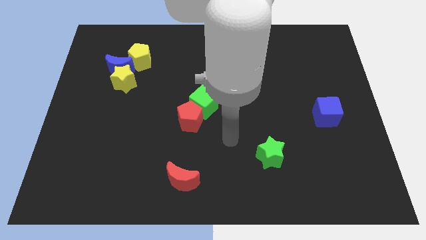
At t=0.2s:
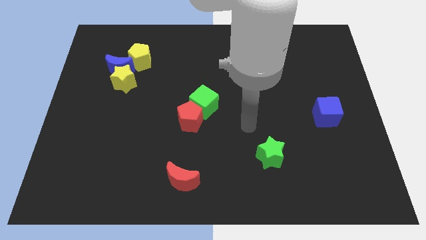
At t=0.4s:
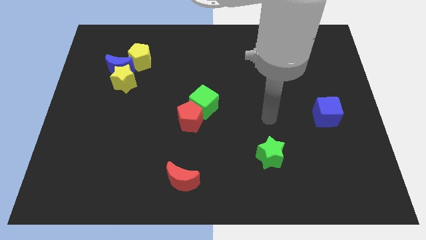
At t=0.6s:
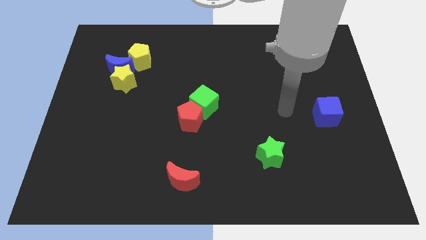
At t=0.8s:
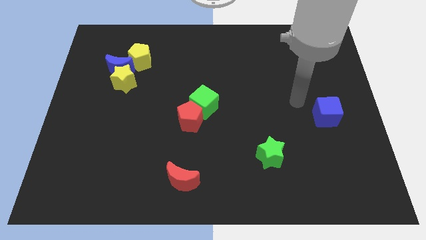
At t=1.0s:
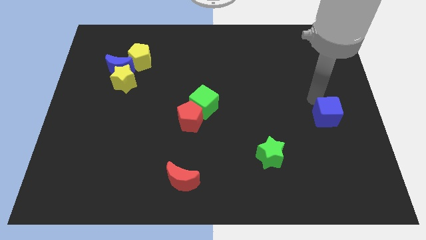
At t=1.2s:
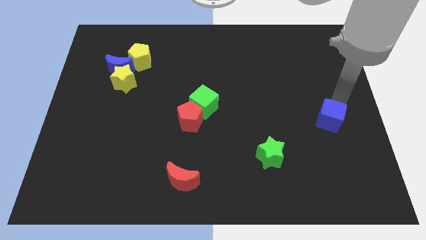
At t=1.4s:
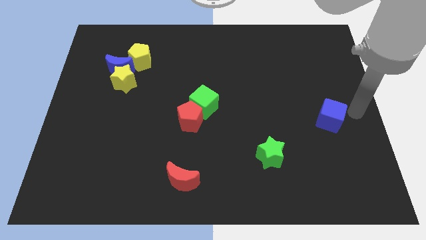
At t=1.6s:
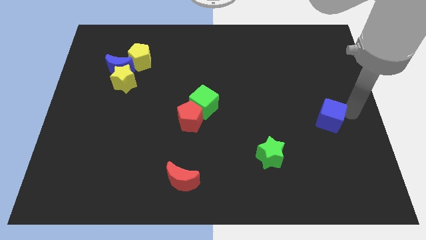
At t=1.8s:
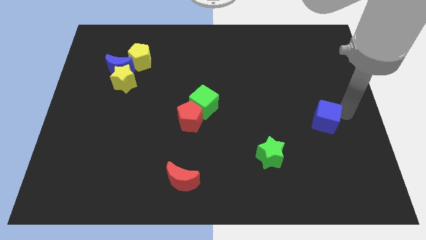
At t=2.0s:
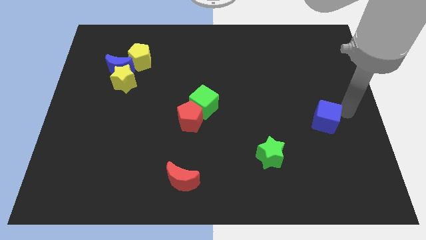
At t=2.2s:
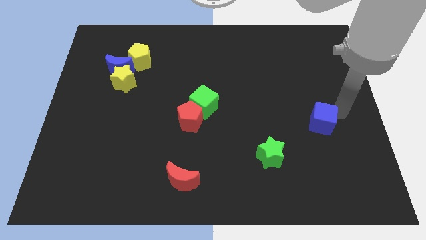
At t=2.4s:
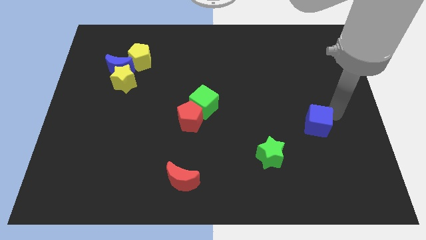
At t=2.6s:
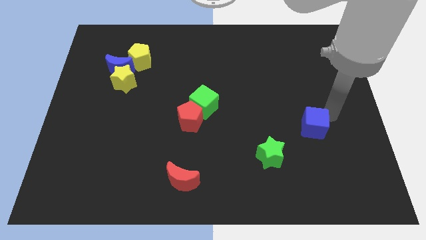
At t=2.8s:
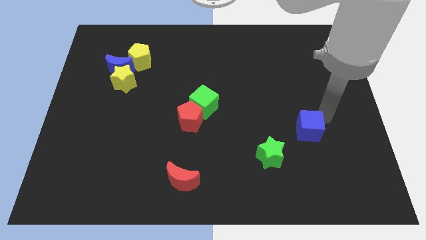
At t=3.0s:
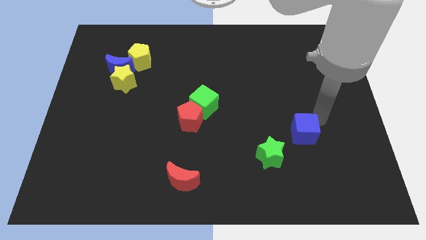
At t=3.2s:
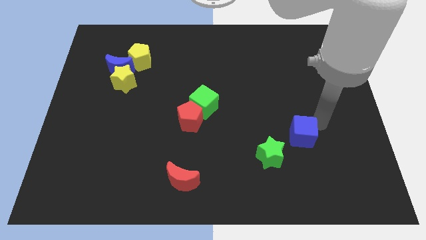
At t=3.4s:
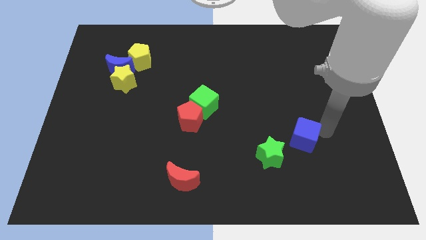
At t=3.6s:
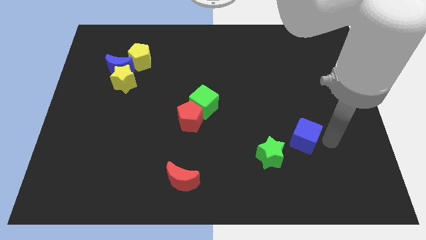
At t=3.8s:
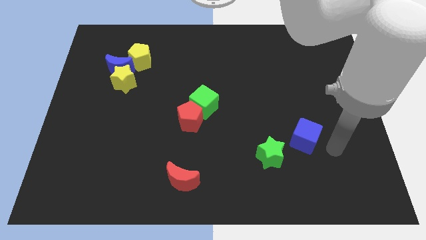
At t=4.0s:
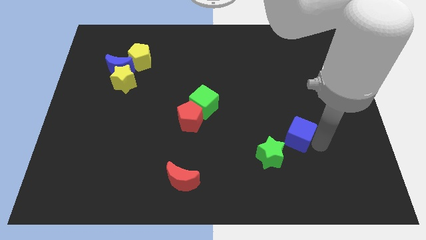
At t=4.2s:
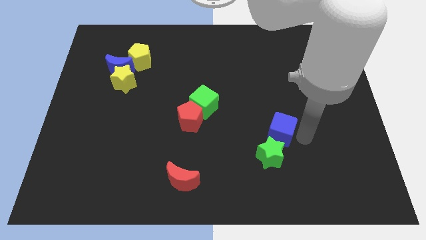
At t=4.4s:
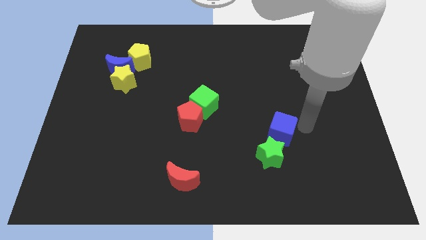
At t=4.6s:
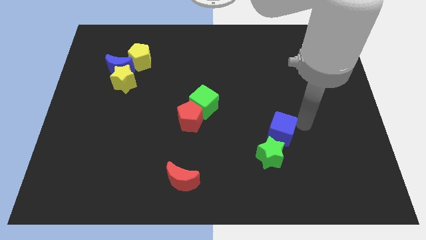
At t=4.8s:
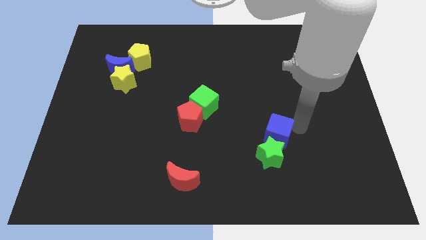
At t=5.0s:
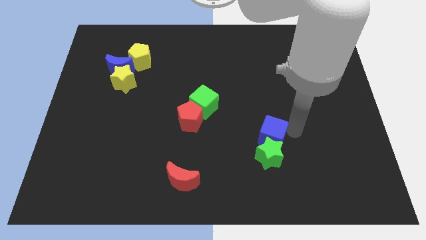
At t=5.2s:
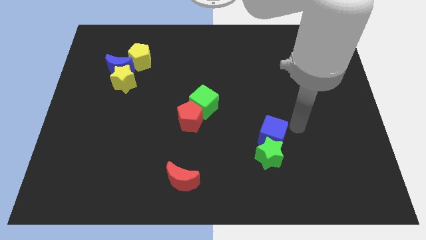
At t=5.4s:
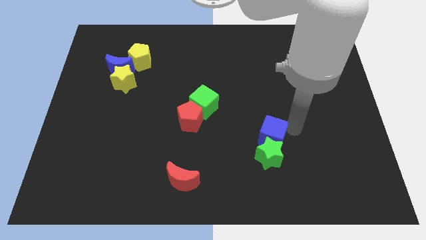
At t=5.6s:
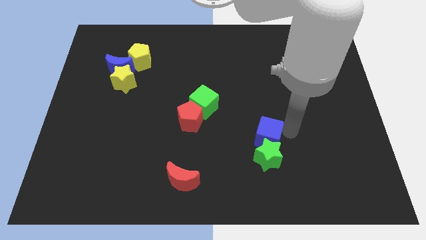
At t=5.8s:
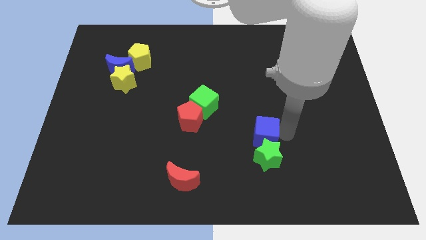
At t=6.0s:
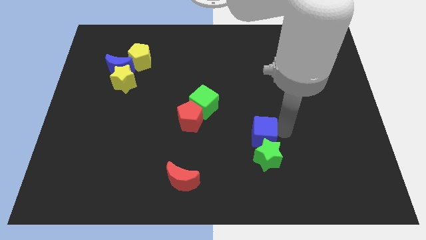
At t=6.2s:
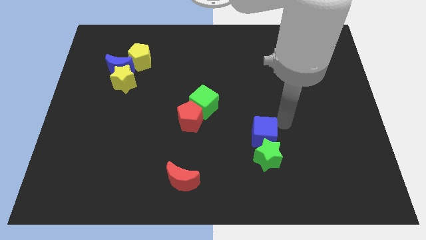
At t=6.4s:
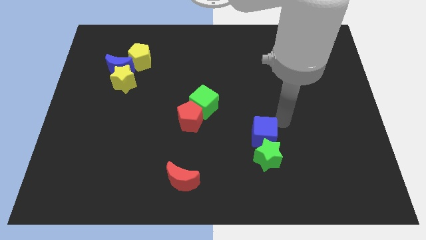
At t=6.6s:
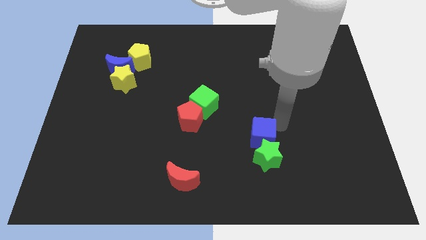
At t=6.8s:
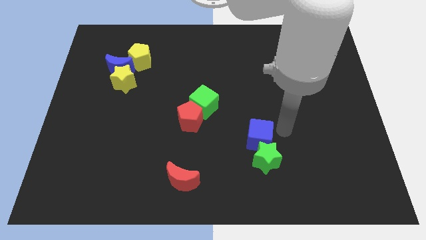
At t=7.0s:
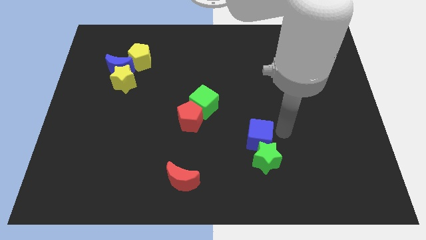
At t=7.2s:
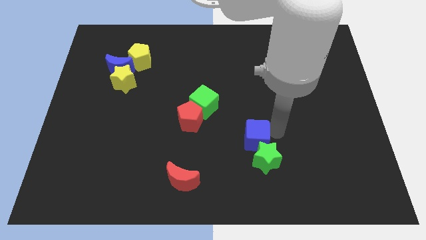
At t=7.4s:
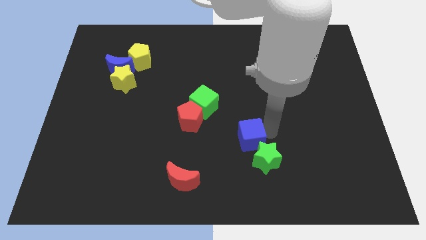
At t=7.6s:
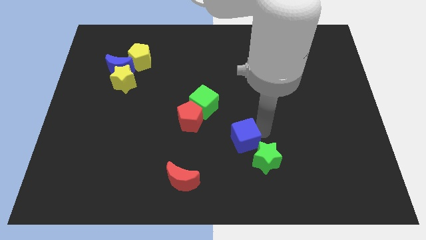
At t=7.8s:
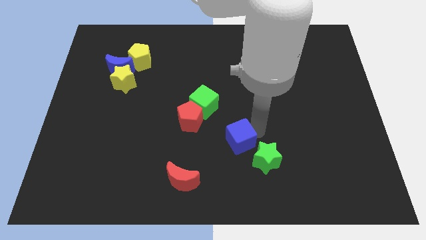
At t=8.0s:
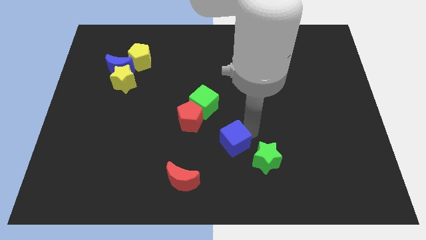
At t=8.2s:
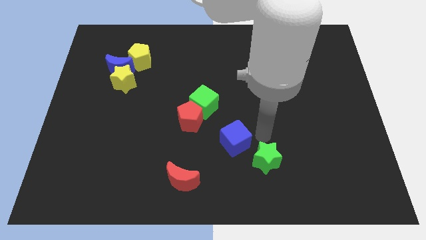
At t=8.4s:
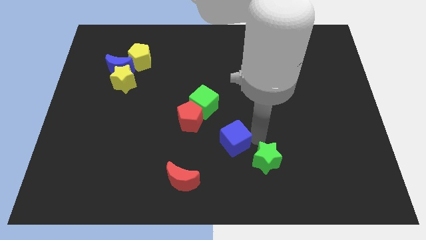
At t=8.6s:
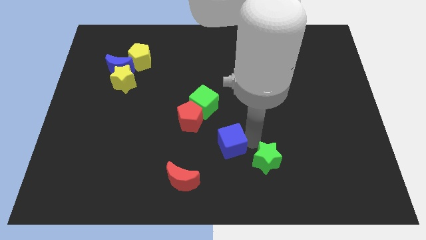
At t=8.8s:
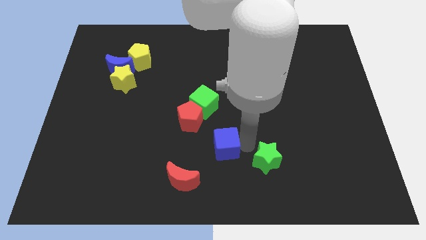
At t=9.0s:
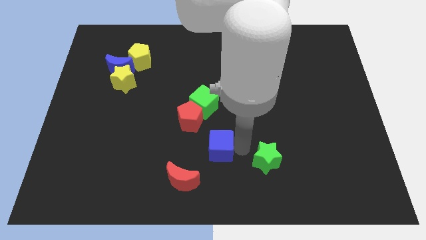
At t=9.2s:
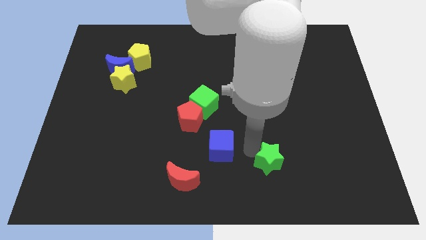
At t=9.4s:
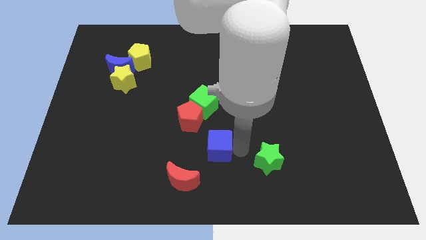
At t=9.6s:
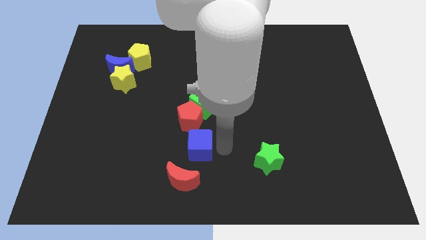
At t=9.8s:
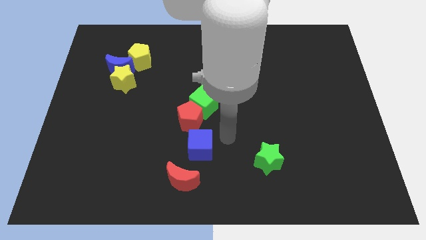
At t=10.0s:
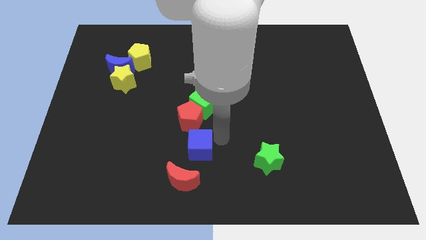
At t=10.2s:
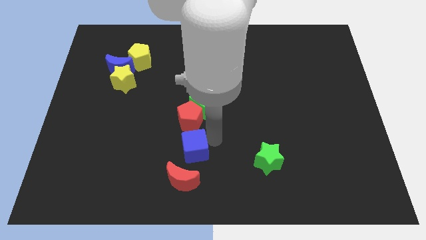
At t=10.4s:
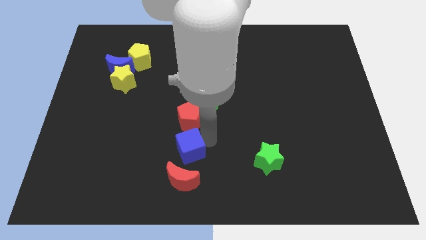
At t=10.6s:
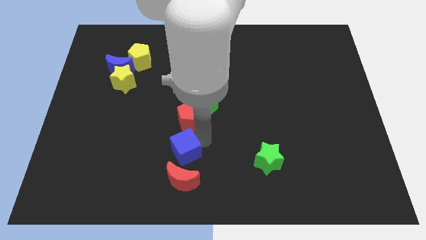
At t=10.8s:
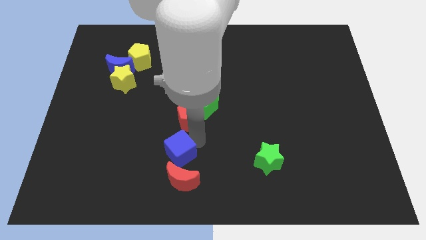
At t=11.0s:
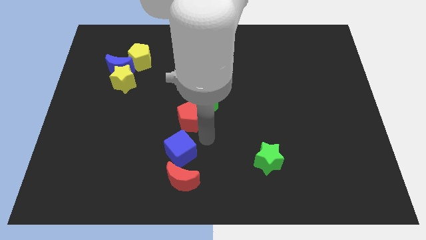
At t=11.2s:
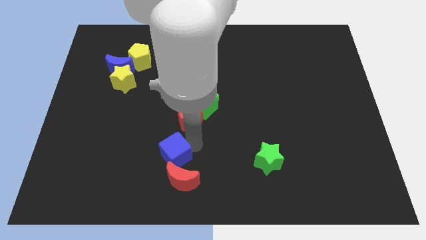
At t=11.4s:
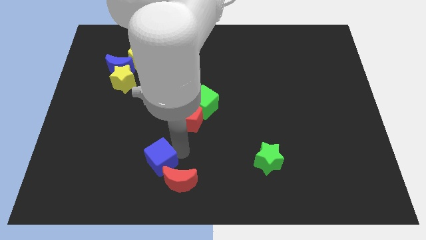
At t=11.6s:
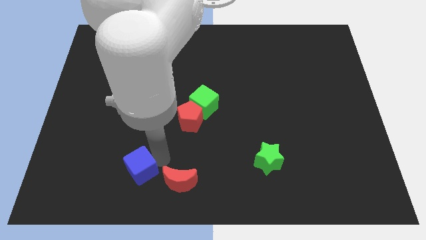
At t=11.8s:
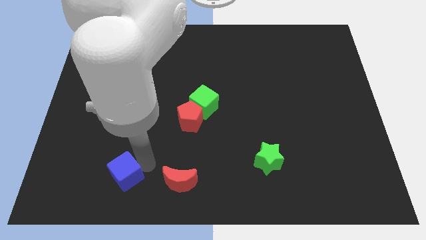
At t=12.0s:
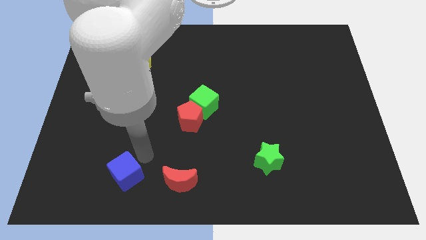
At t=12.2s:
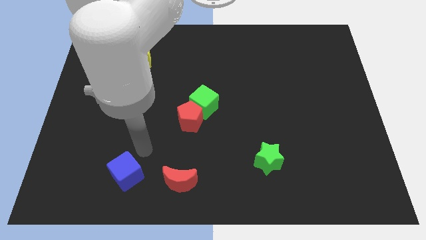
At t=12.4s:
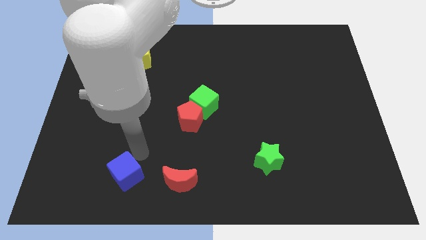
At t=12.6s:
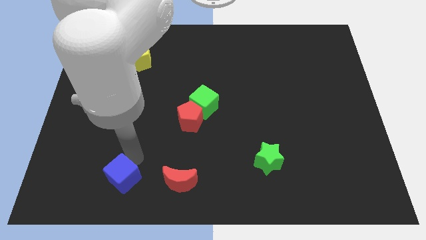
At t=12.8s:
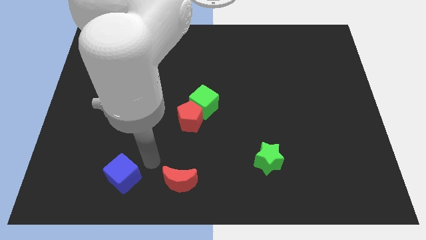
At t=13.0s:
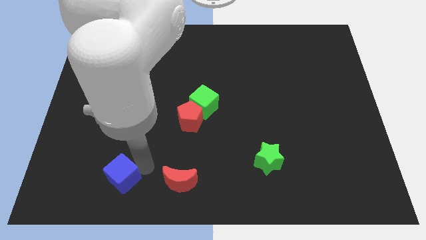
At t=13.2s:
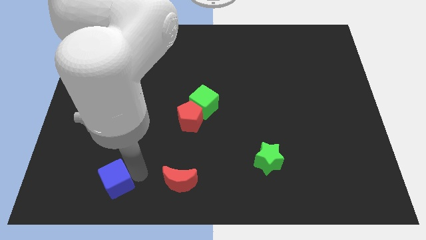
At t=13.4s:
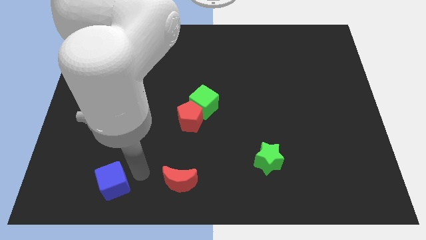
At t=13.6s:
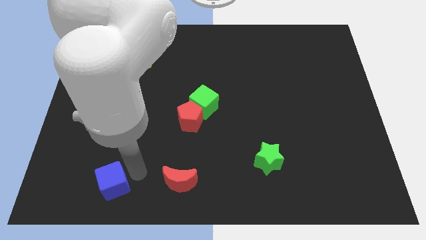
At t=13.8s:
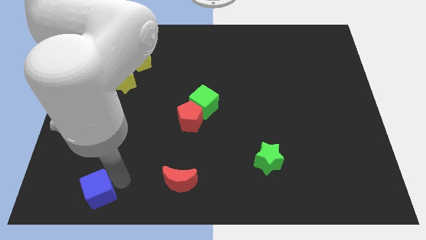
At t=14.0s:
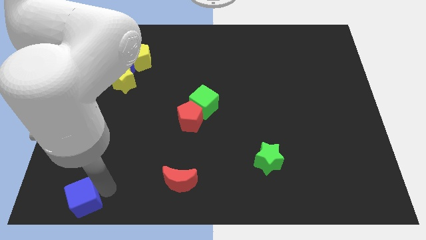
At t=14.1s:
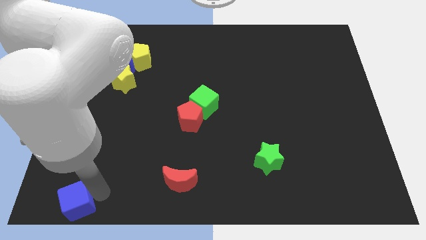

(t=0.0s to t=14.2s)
put the blue cube to the bottom left of the board
